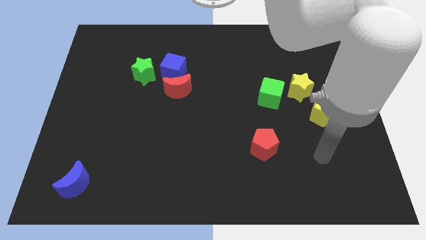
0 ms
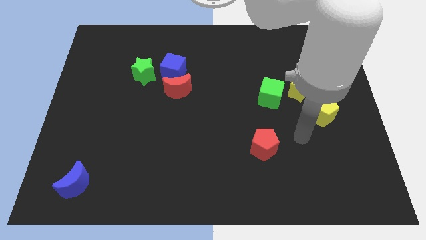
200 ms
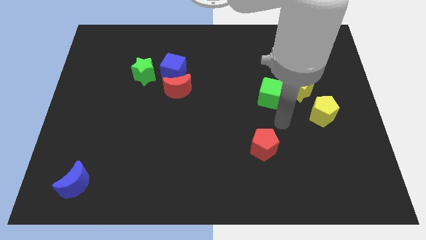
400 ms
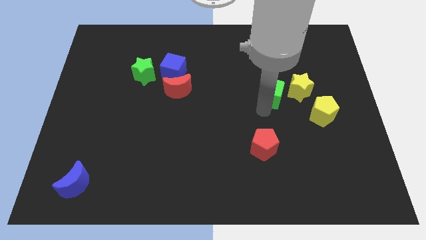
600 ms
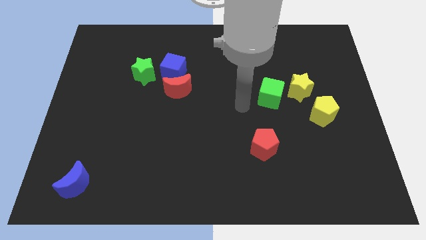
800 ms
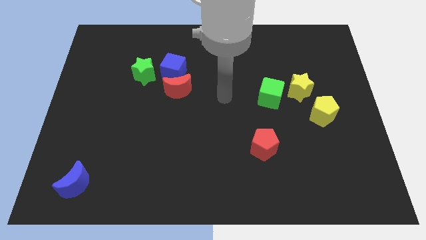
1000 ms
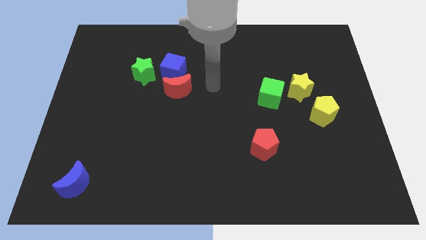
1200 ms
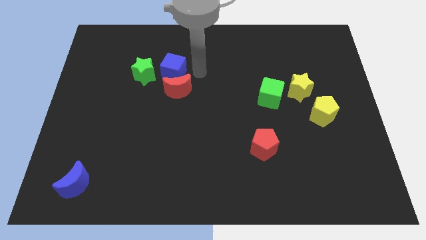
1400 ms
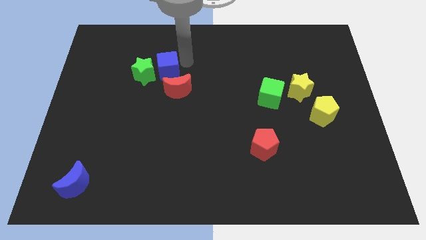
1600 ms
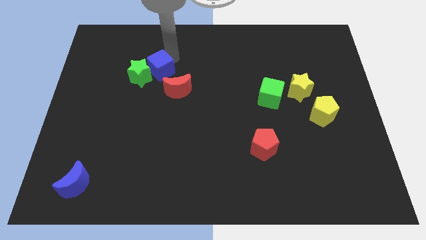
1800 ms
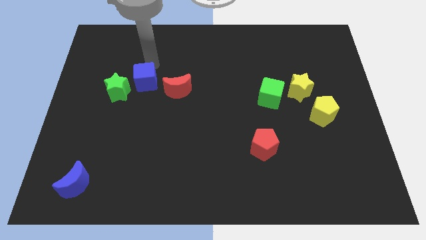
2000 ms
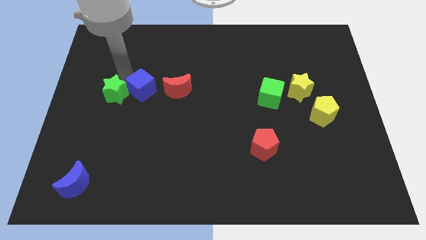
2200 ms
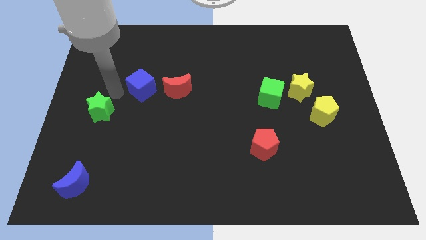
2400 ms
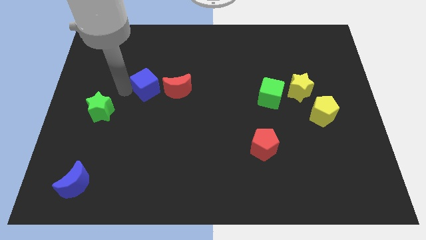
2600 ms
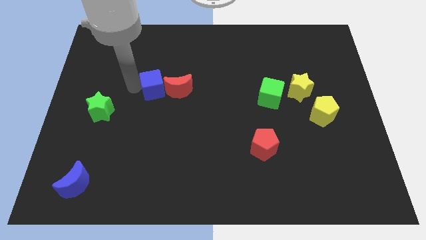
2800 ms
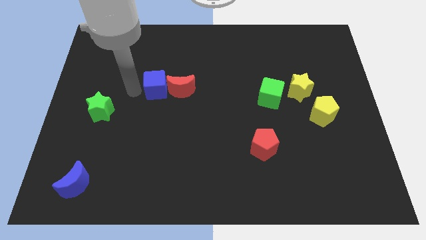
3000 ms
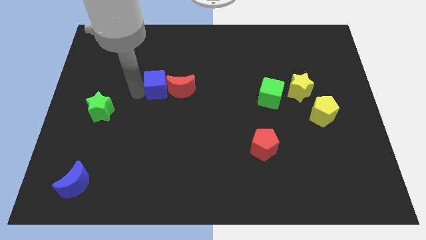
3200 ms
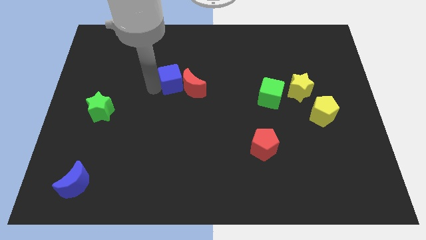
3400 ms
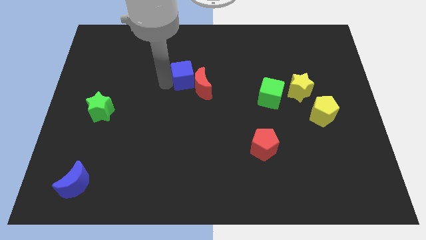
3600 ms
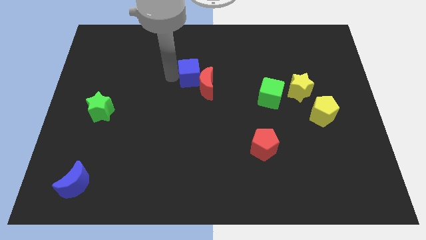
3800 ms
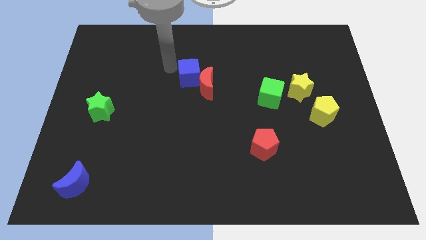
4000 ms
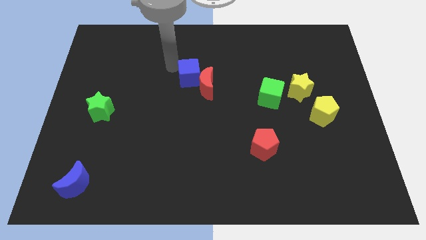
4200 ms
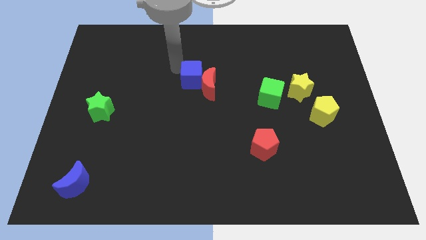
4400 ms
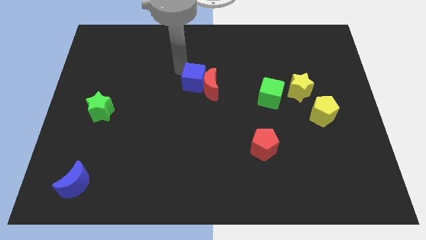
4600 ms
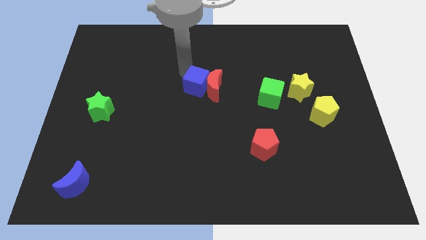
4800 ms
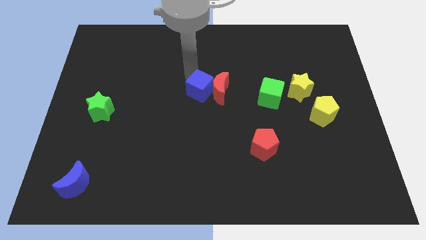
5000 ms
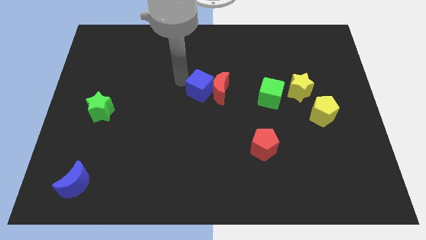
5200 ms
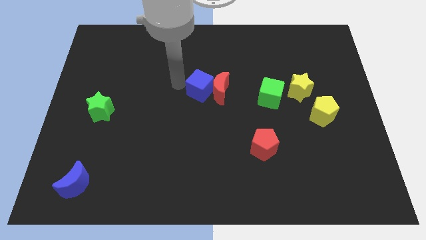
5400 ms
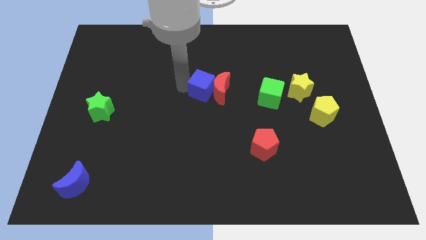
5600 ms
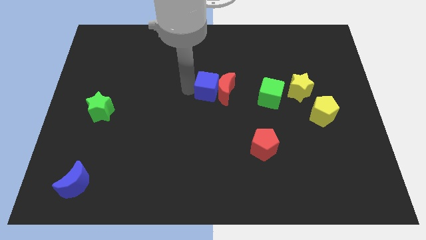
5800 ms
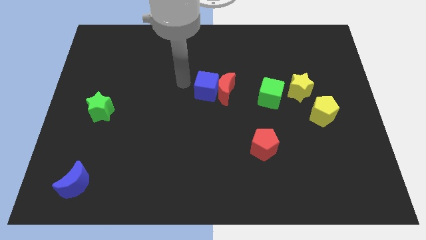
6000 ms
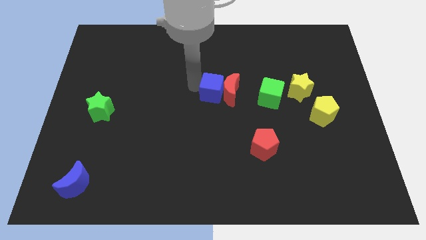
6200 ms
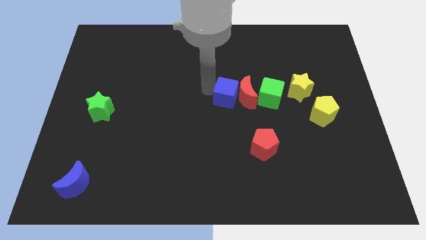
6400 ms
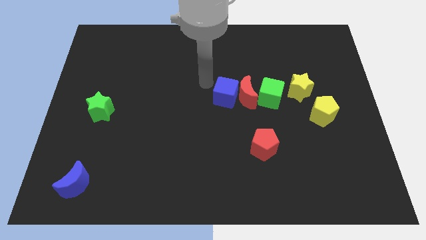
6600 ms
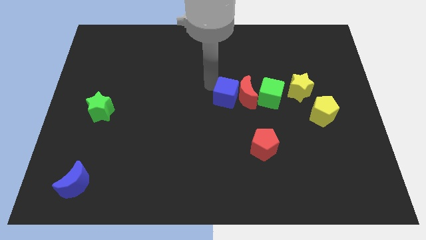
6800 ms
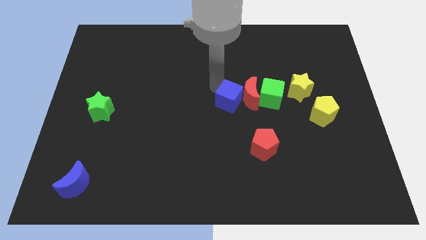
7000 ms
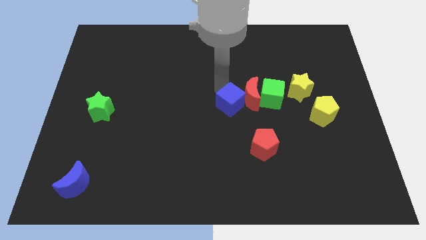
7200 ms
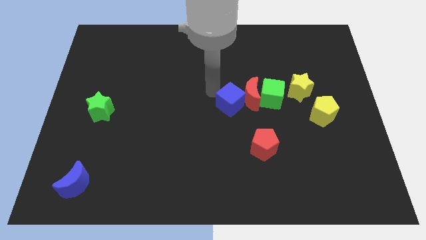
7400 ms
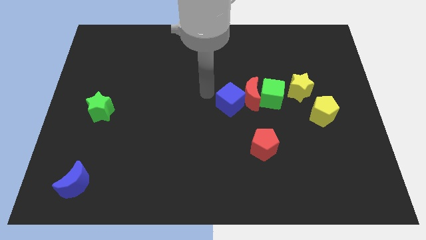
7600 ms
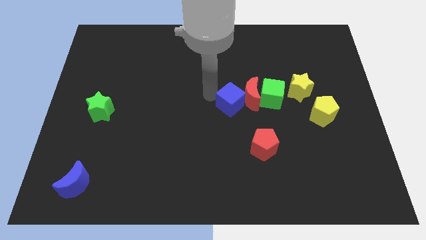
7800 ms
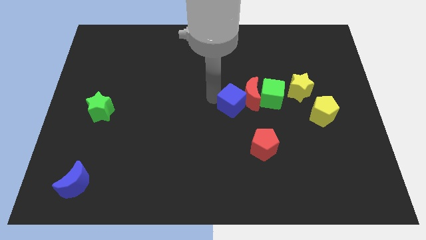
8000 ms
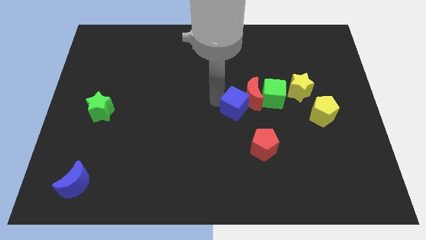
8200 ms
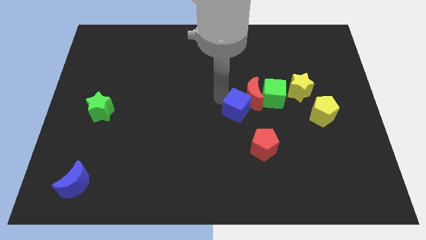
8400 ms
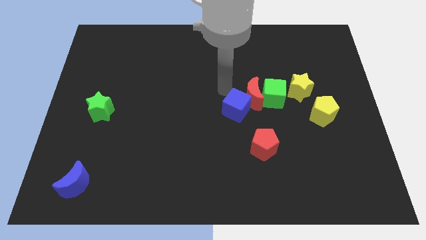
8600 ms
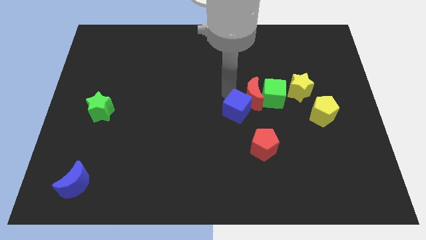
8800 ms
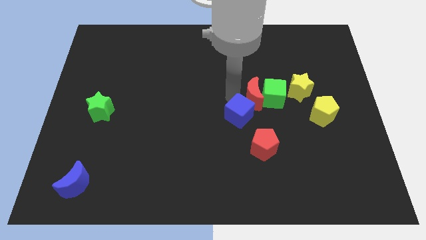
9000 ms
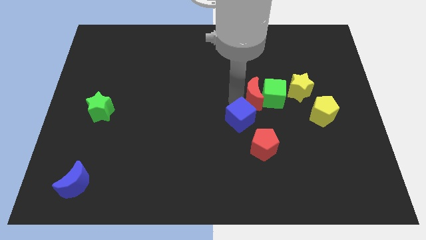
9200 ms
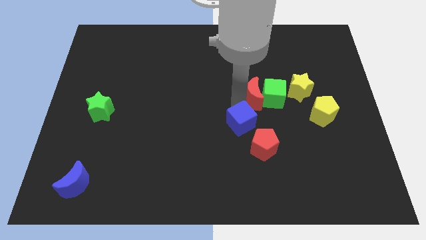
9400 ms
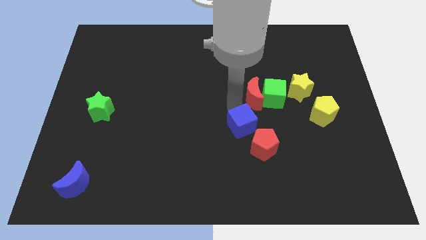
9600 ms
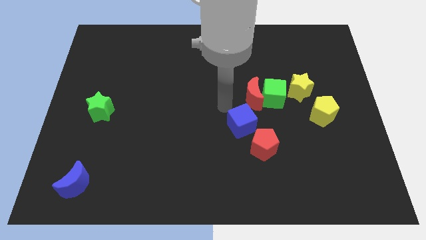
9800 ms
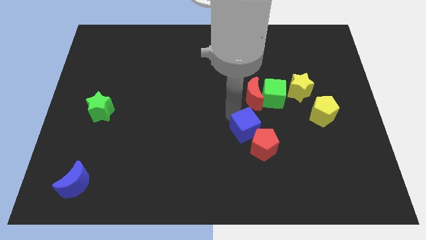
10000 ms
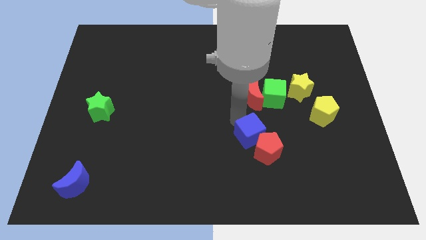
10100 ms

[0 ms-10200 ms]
push the blue cube next to the red pentagon

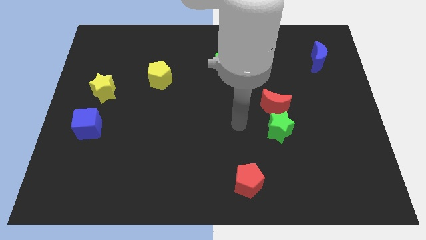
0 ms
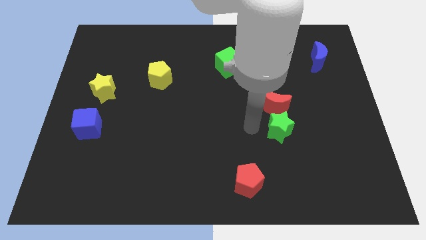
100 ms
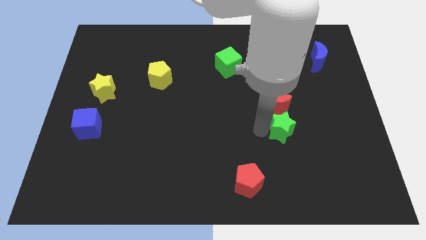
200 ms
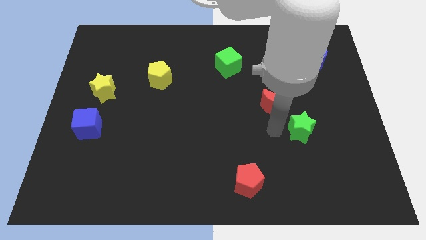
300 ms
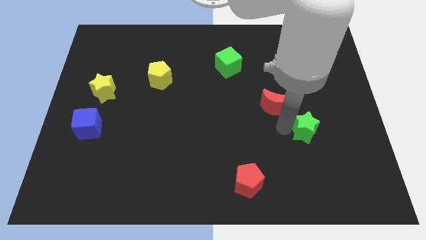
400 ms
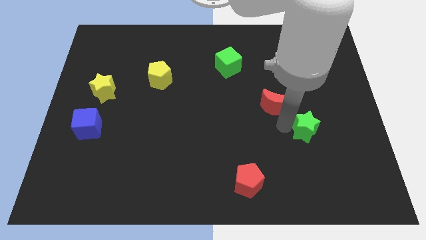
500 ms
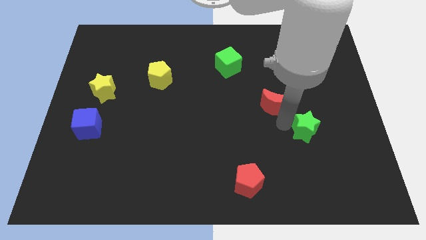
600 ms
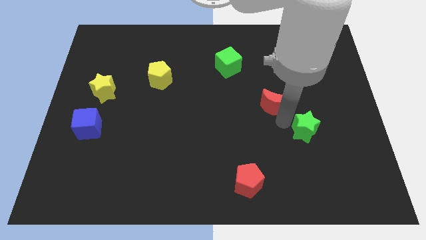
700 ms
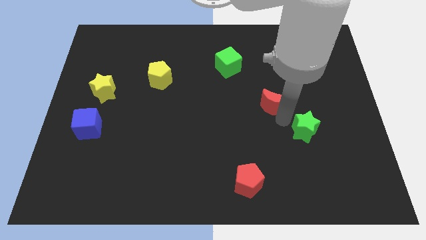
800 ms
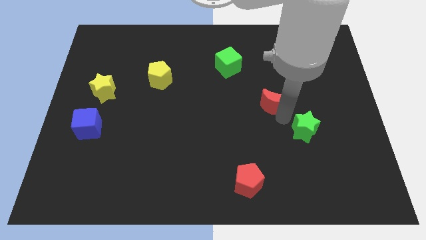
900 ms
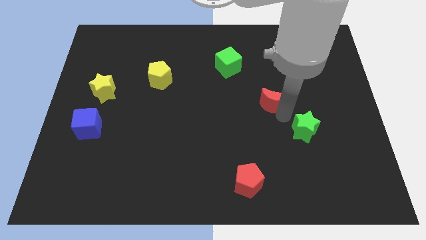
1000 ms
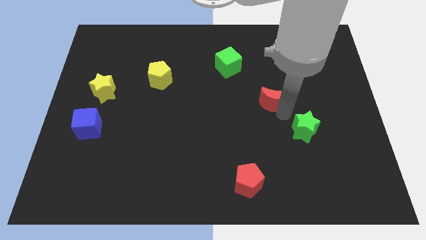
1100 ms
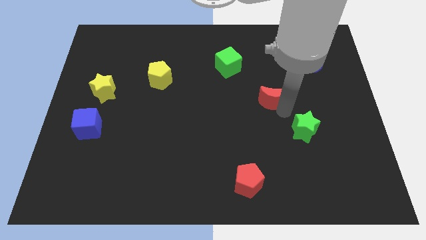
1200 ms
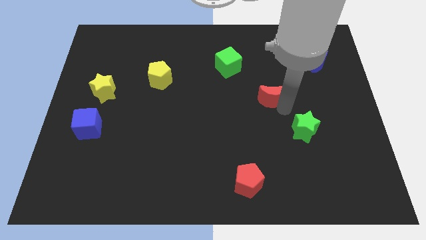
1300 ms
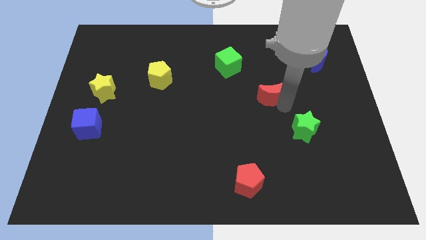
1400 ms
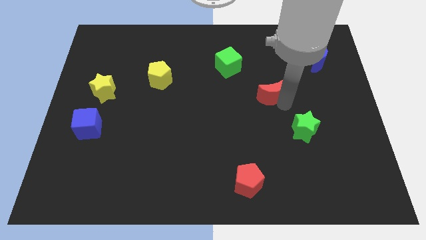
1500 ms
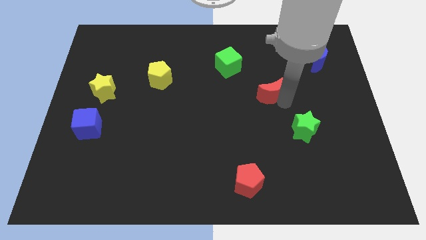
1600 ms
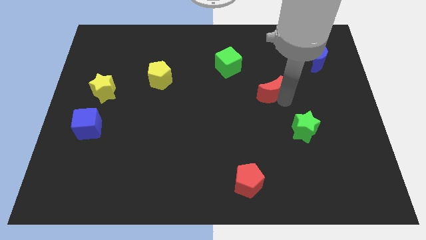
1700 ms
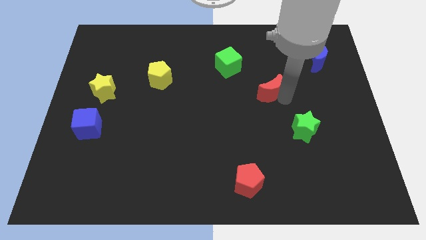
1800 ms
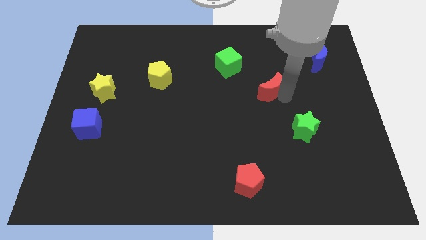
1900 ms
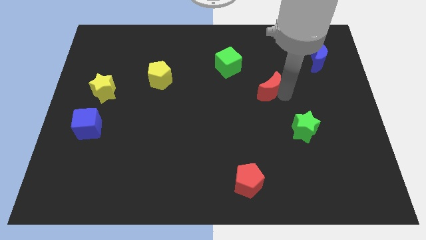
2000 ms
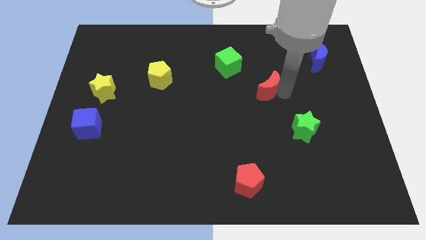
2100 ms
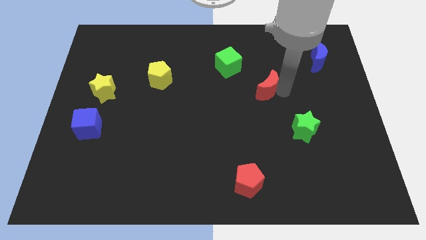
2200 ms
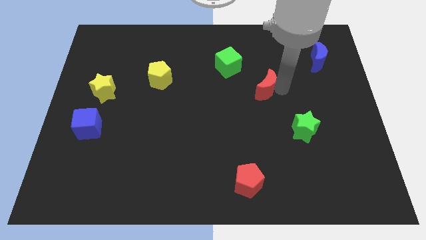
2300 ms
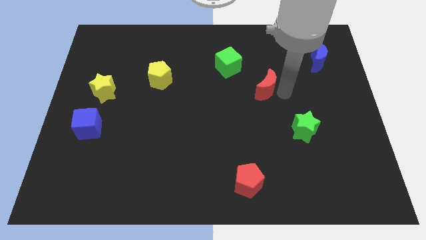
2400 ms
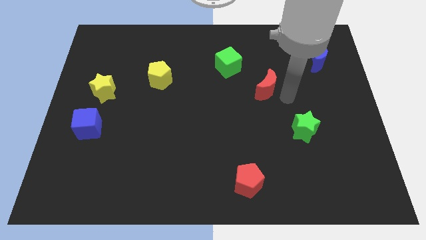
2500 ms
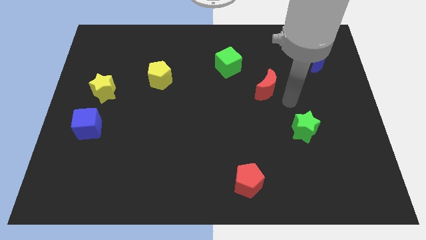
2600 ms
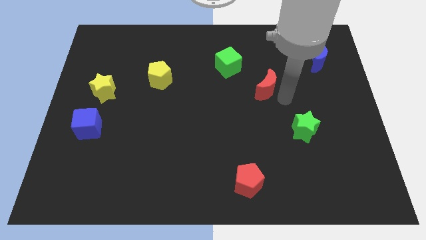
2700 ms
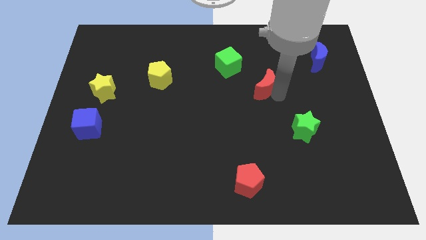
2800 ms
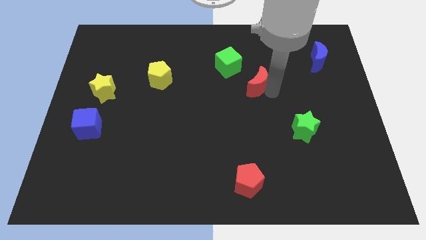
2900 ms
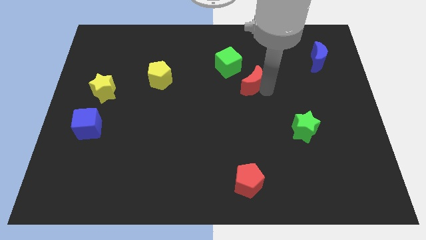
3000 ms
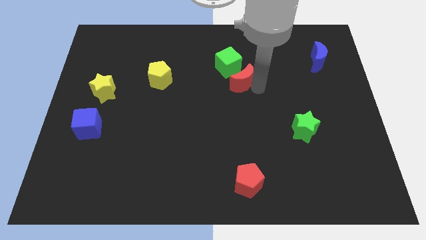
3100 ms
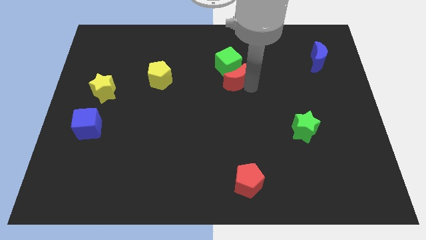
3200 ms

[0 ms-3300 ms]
push the red moon to the green cube
